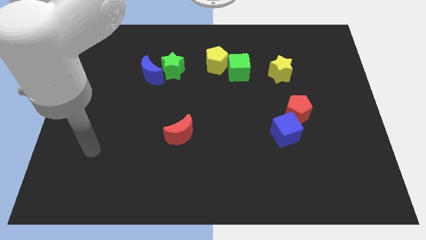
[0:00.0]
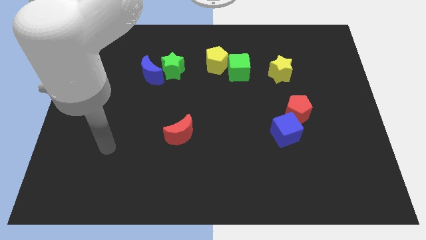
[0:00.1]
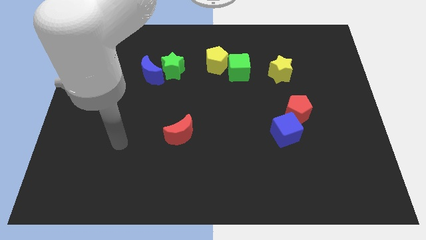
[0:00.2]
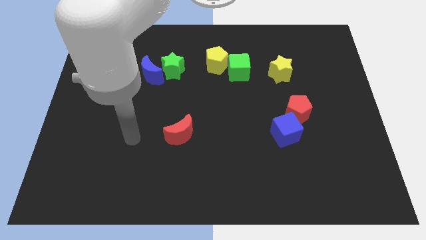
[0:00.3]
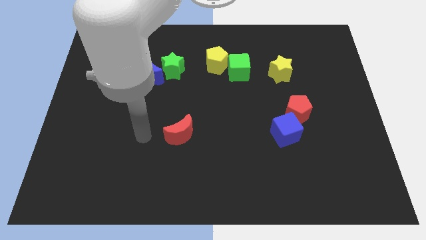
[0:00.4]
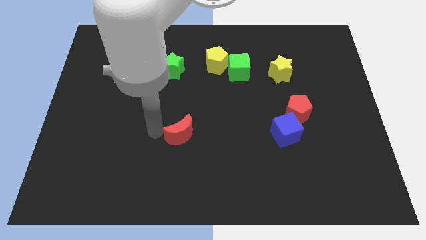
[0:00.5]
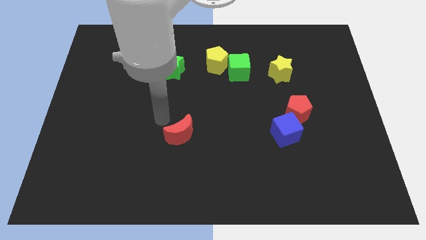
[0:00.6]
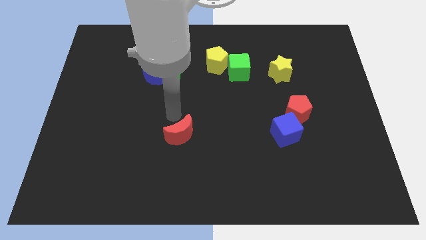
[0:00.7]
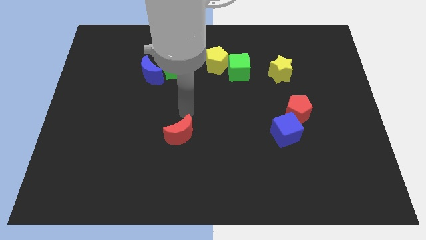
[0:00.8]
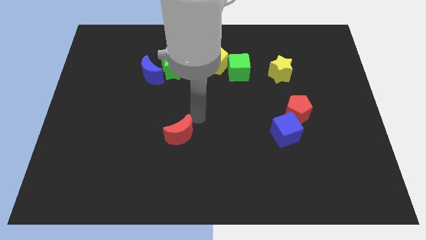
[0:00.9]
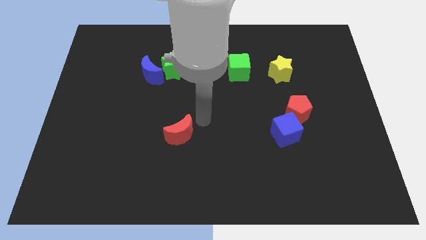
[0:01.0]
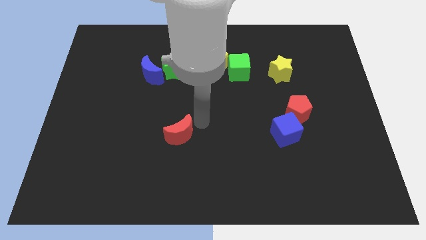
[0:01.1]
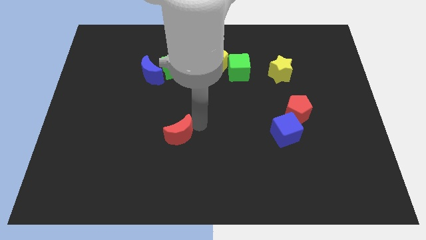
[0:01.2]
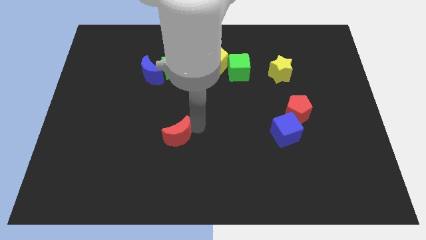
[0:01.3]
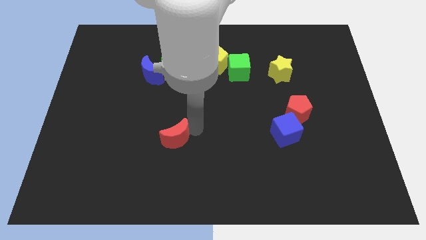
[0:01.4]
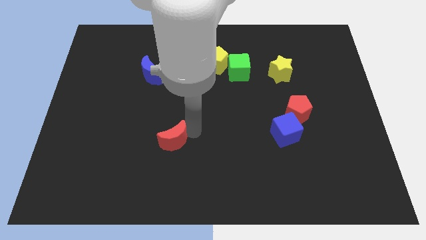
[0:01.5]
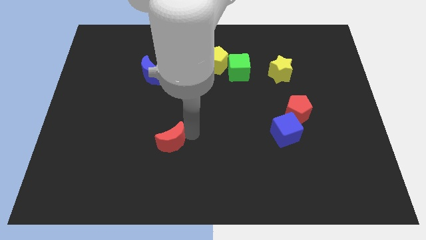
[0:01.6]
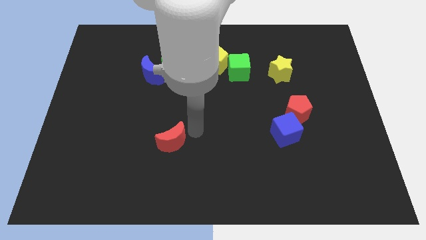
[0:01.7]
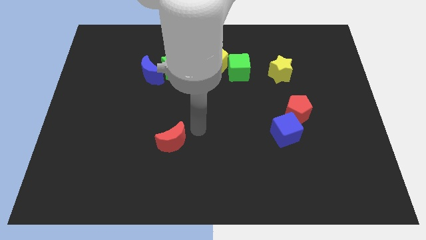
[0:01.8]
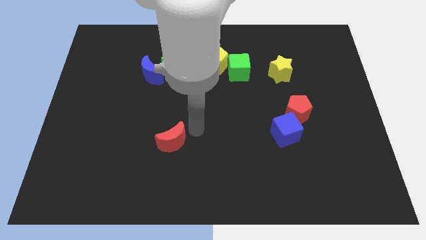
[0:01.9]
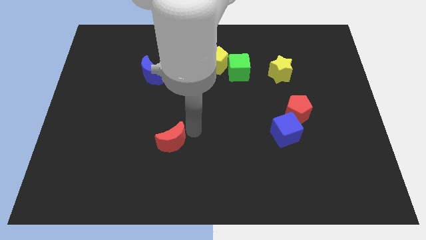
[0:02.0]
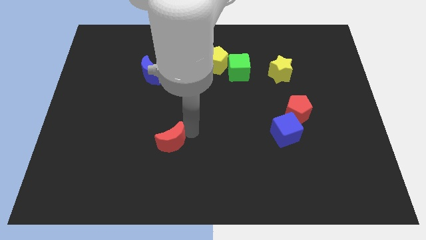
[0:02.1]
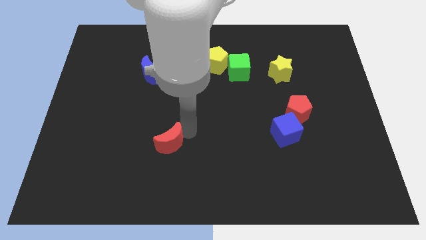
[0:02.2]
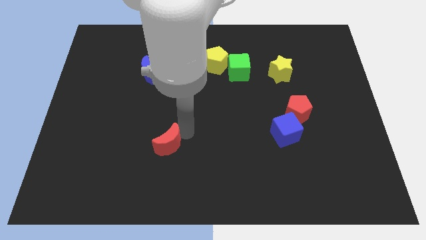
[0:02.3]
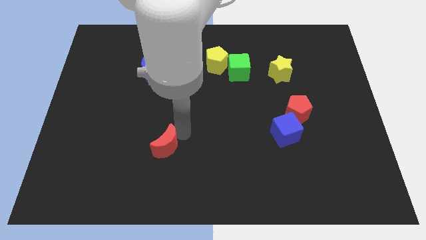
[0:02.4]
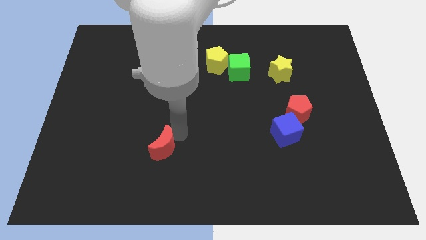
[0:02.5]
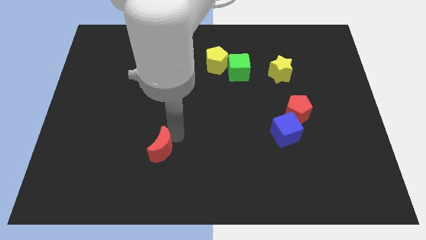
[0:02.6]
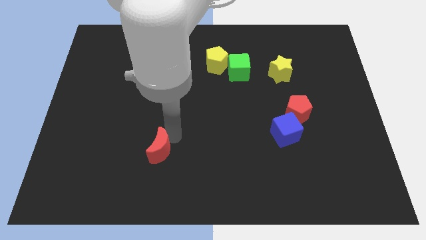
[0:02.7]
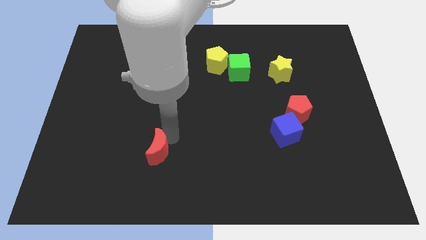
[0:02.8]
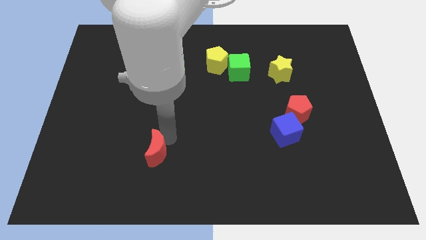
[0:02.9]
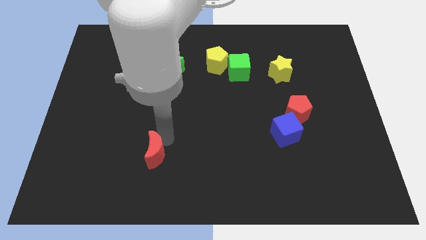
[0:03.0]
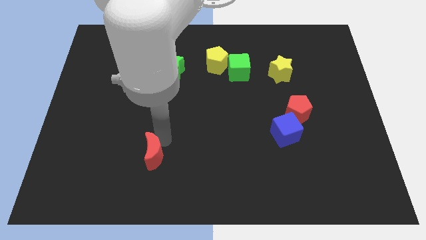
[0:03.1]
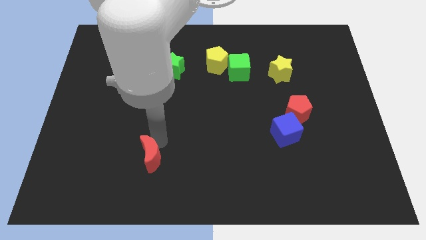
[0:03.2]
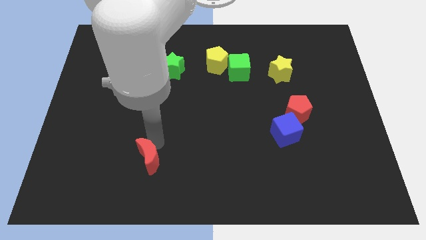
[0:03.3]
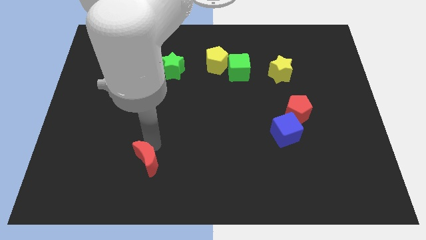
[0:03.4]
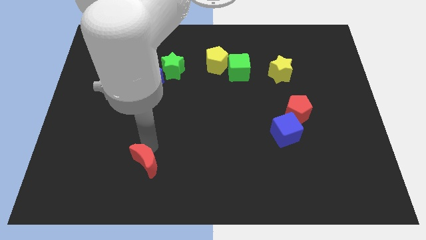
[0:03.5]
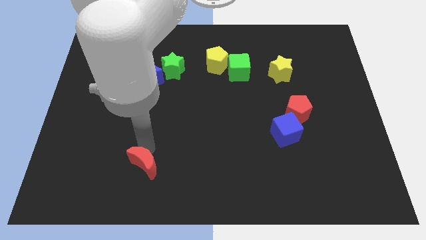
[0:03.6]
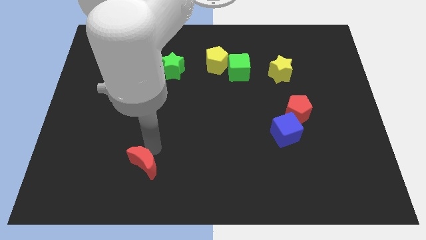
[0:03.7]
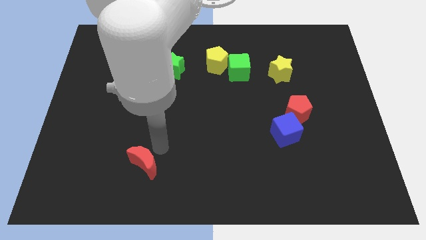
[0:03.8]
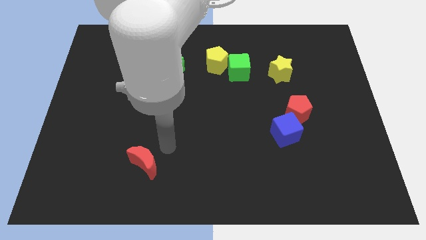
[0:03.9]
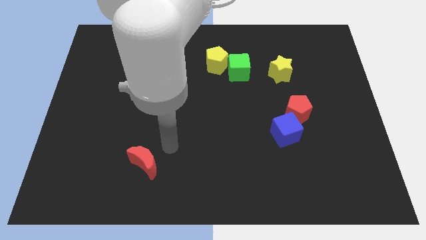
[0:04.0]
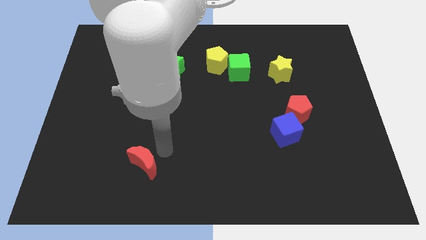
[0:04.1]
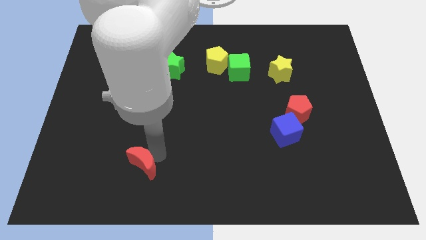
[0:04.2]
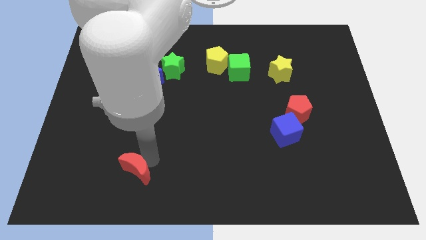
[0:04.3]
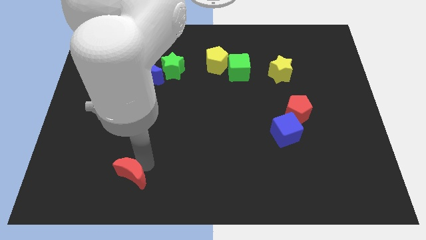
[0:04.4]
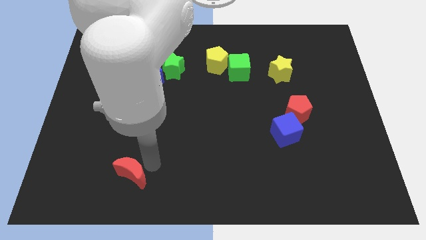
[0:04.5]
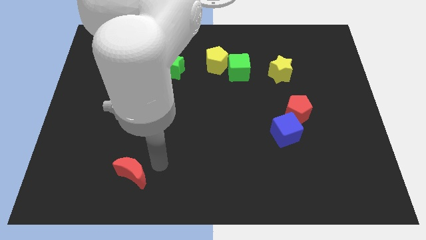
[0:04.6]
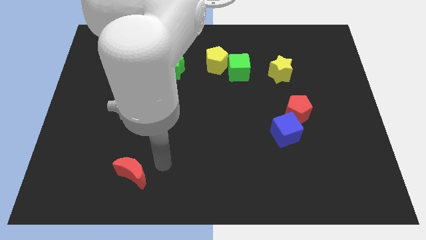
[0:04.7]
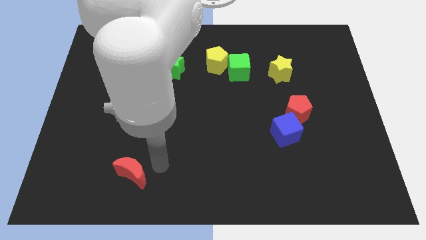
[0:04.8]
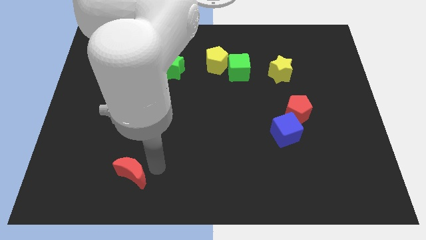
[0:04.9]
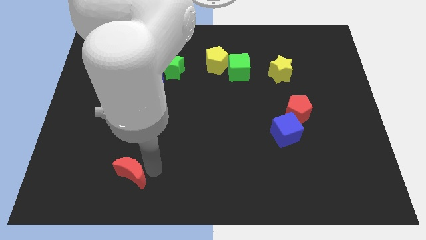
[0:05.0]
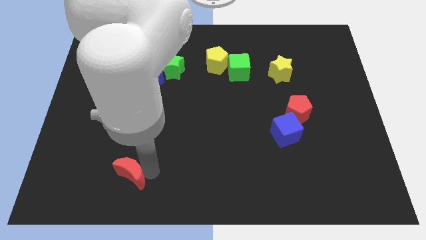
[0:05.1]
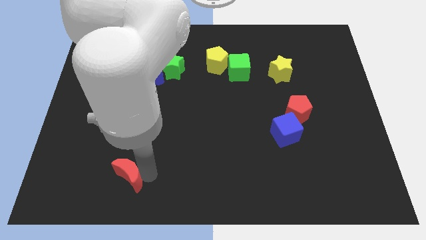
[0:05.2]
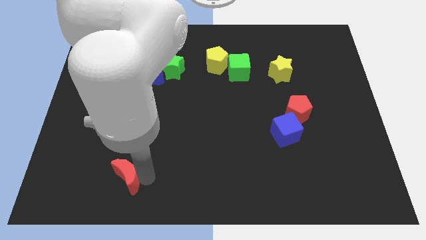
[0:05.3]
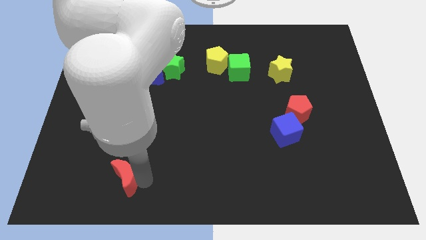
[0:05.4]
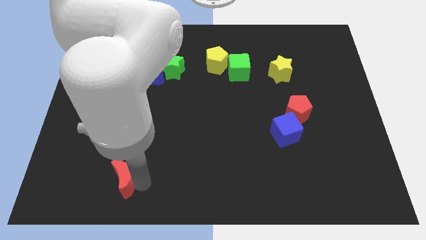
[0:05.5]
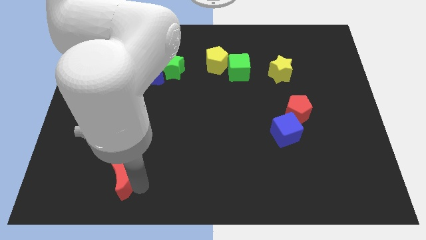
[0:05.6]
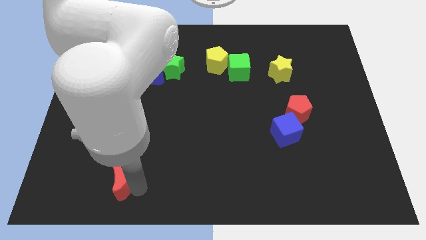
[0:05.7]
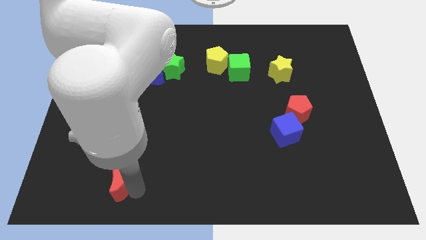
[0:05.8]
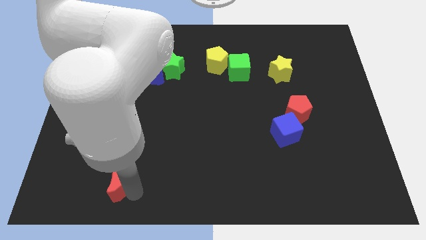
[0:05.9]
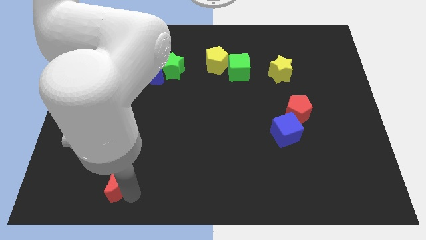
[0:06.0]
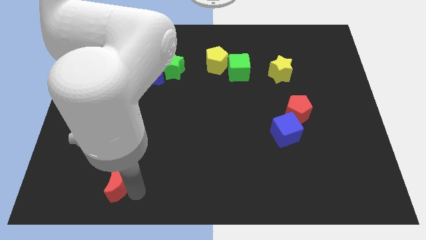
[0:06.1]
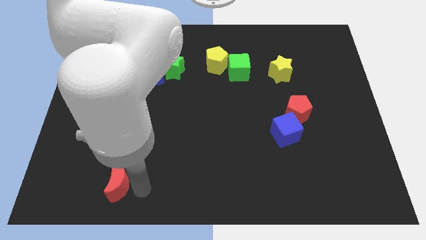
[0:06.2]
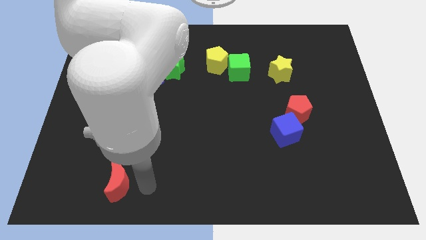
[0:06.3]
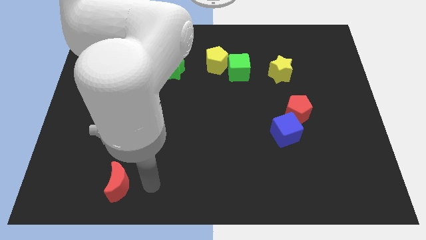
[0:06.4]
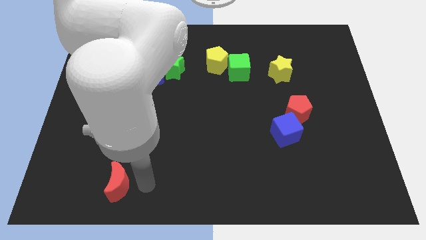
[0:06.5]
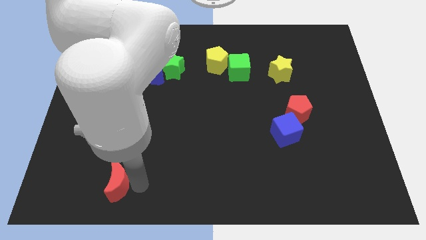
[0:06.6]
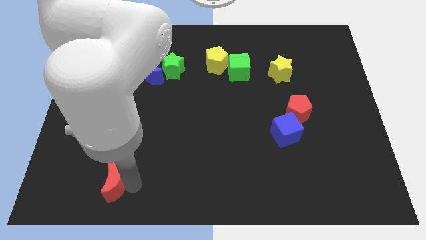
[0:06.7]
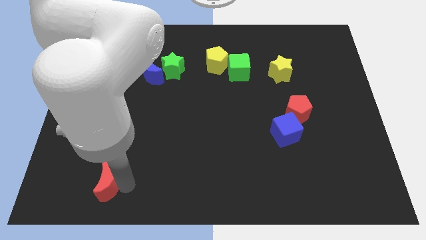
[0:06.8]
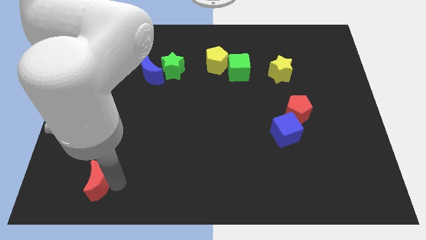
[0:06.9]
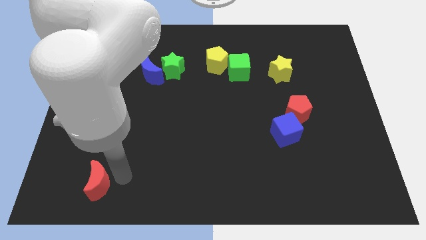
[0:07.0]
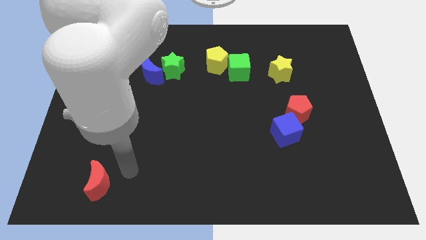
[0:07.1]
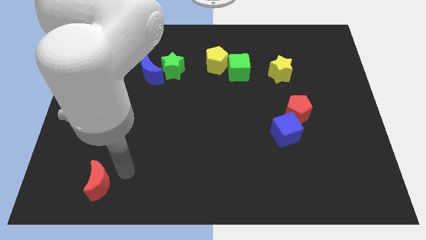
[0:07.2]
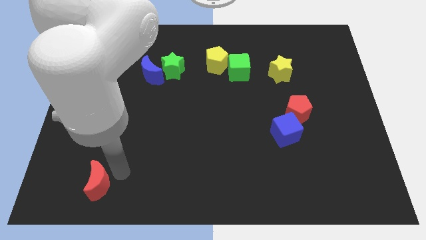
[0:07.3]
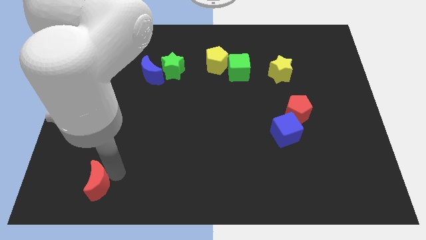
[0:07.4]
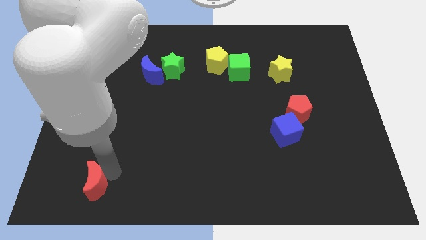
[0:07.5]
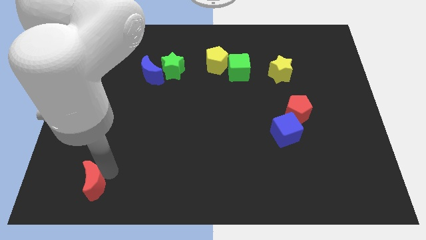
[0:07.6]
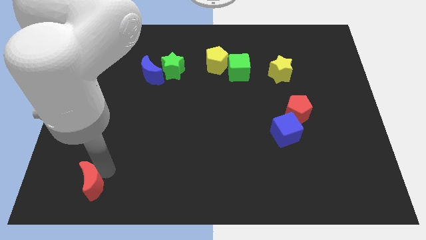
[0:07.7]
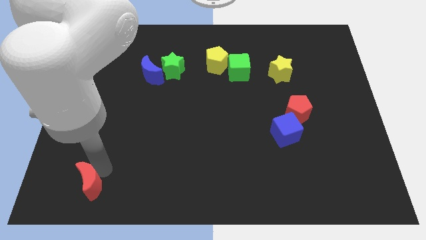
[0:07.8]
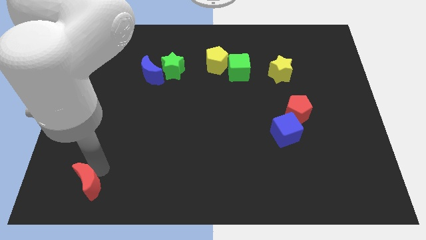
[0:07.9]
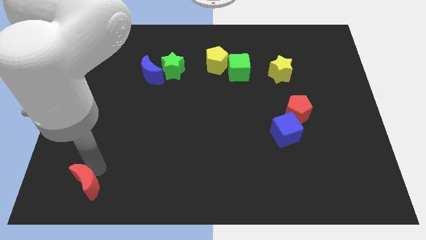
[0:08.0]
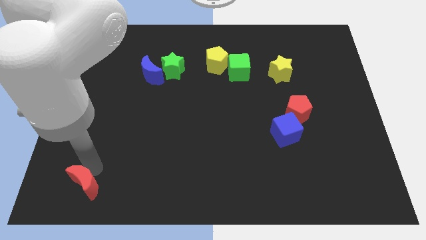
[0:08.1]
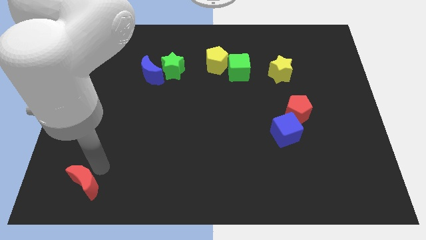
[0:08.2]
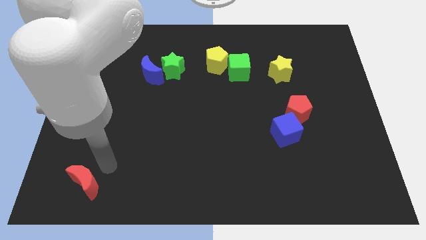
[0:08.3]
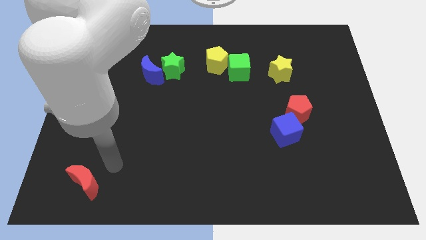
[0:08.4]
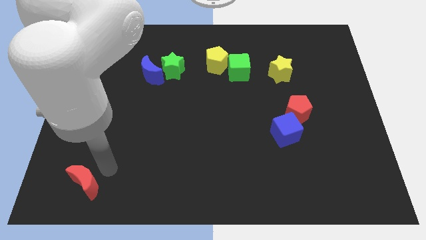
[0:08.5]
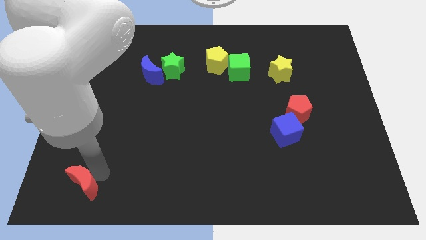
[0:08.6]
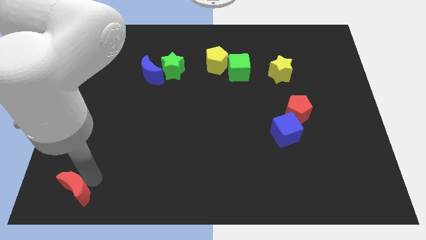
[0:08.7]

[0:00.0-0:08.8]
move the red moon to the lower left corner
